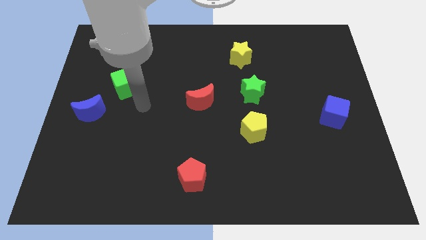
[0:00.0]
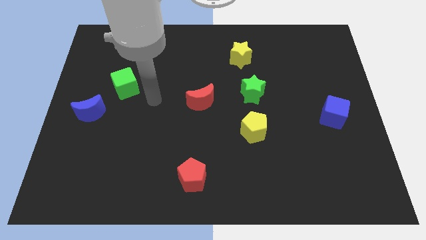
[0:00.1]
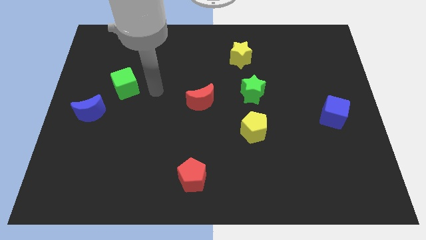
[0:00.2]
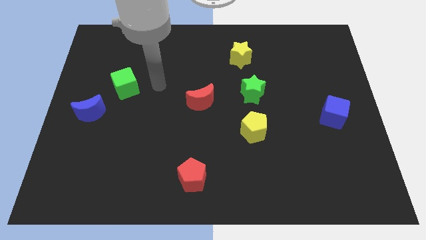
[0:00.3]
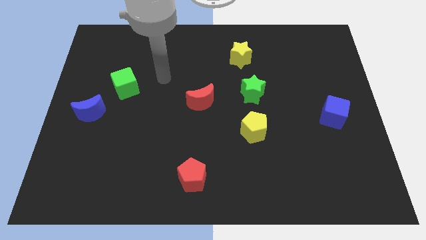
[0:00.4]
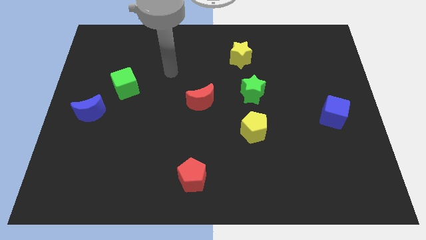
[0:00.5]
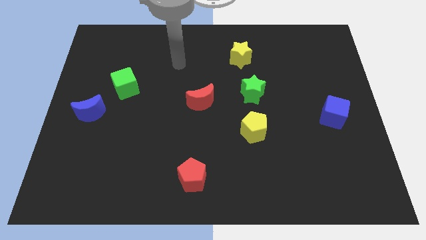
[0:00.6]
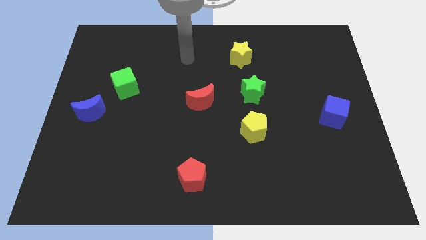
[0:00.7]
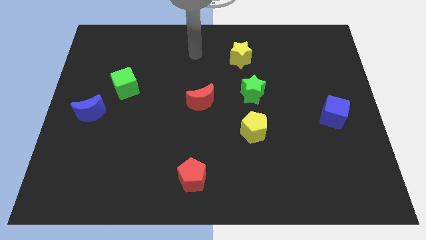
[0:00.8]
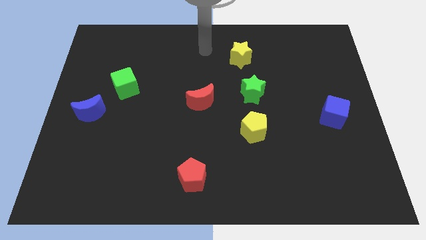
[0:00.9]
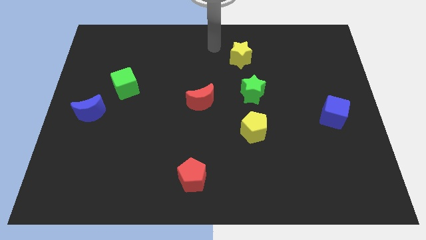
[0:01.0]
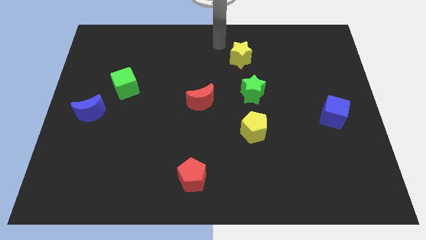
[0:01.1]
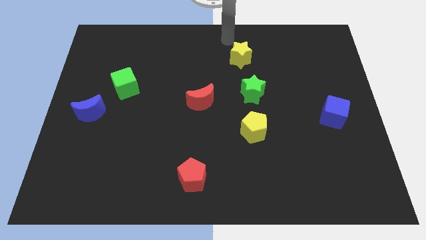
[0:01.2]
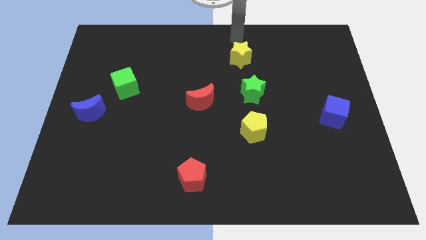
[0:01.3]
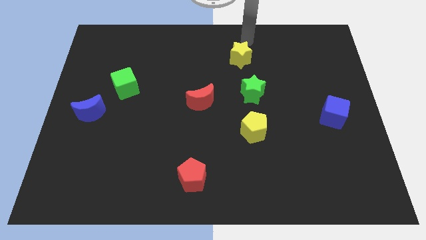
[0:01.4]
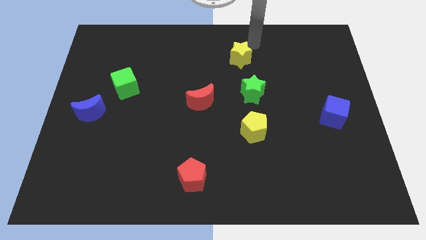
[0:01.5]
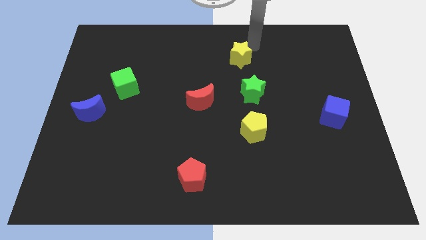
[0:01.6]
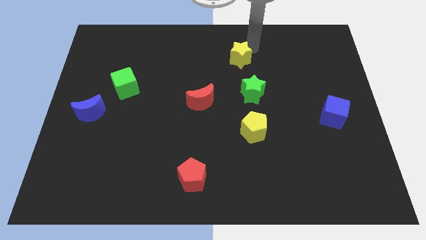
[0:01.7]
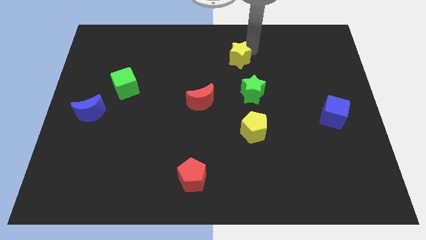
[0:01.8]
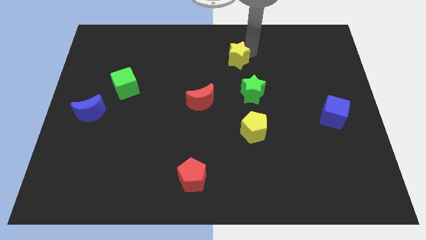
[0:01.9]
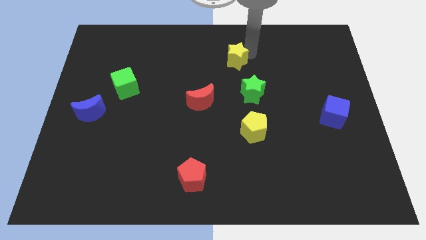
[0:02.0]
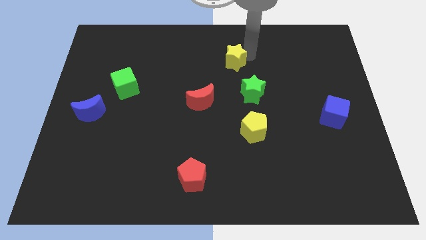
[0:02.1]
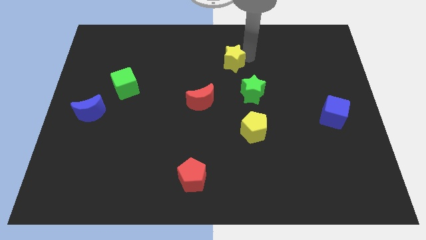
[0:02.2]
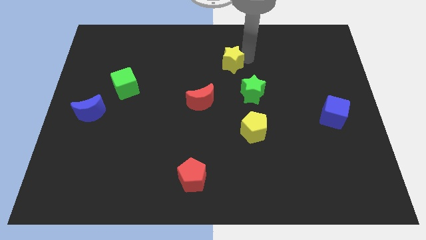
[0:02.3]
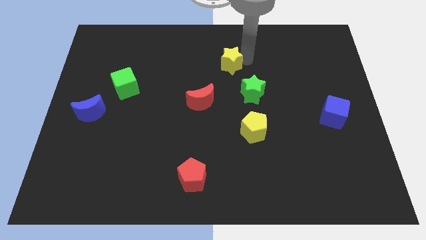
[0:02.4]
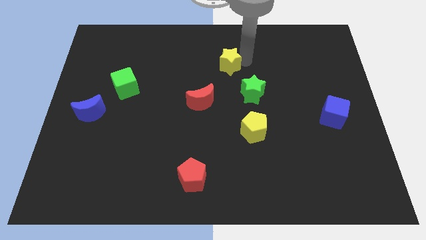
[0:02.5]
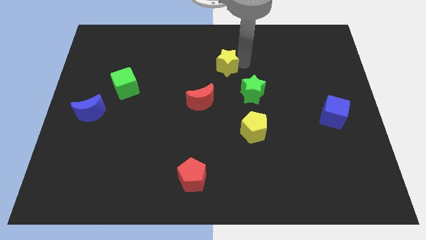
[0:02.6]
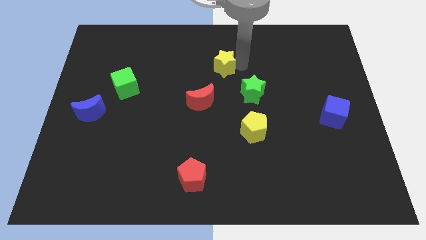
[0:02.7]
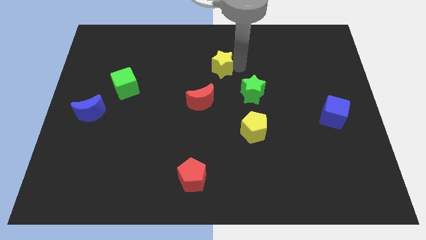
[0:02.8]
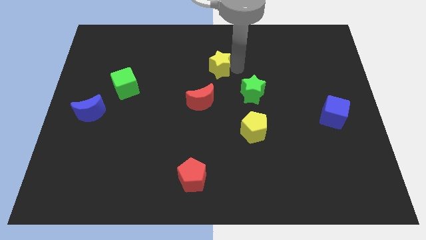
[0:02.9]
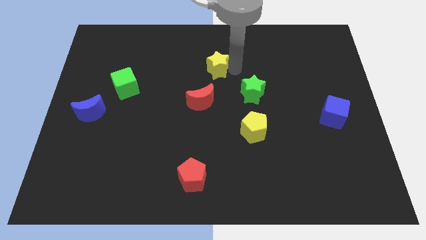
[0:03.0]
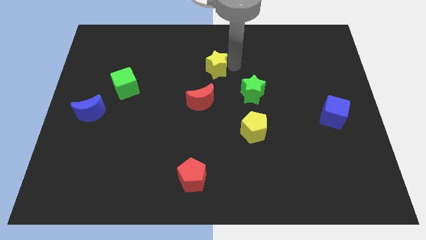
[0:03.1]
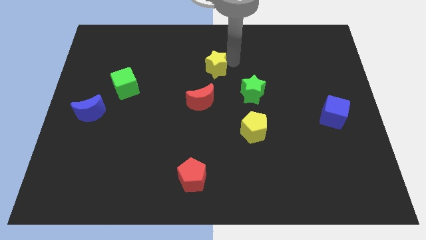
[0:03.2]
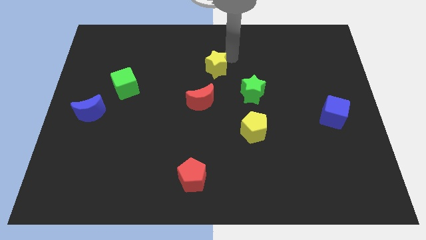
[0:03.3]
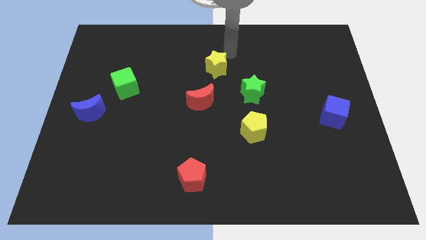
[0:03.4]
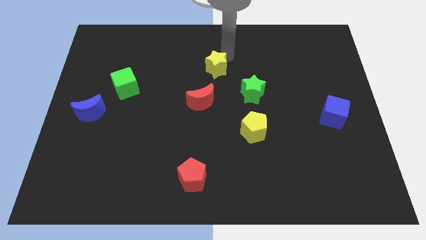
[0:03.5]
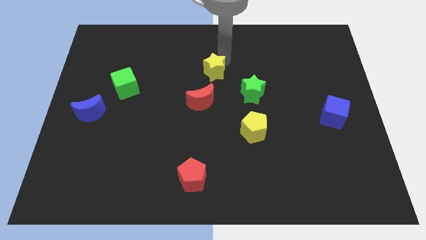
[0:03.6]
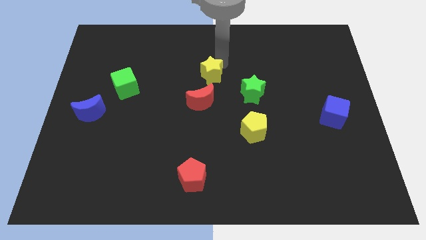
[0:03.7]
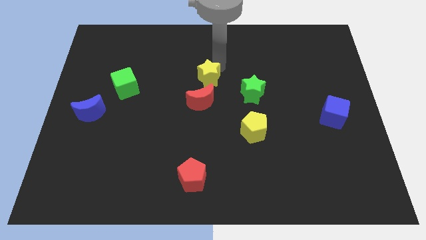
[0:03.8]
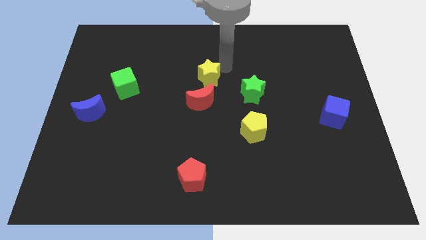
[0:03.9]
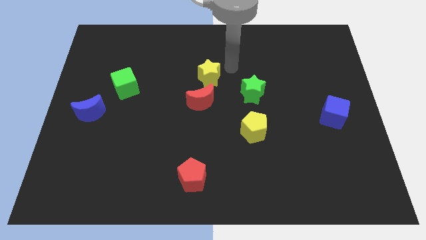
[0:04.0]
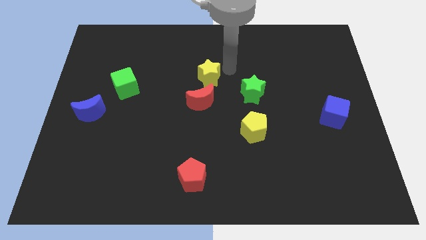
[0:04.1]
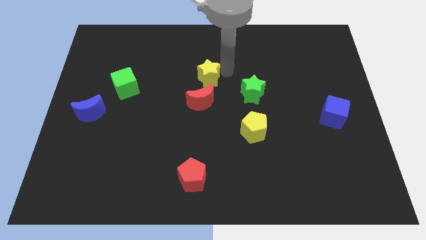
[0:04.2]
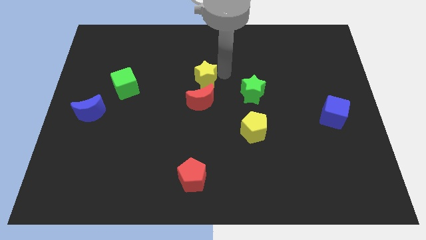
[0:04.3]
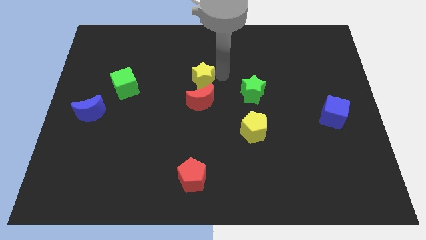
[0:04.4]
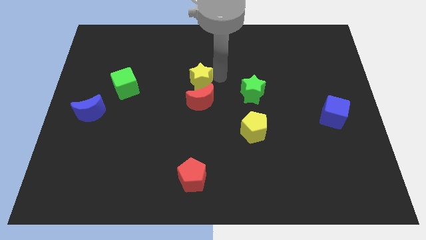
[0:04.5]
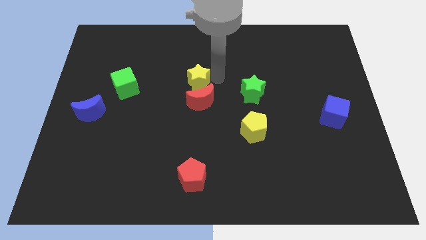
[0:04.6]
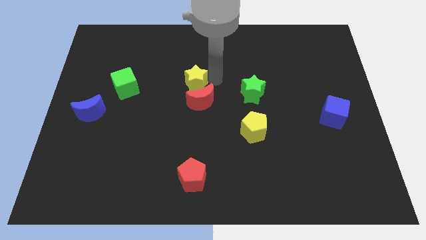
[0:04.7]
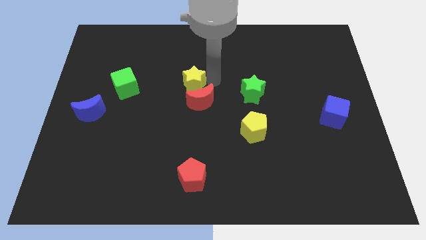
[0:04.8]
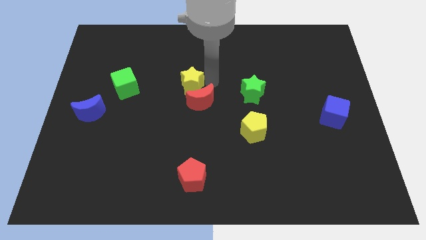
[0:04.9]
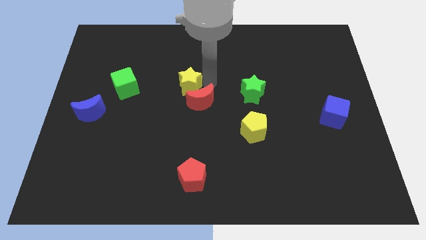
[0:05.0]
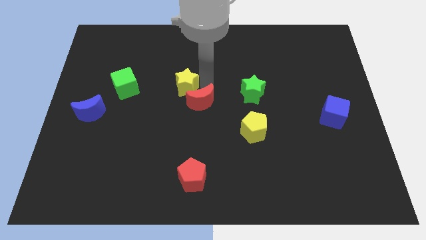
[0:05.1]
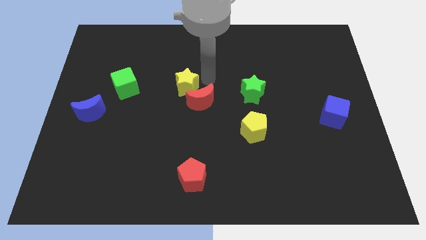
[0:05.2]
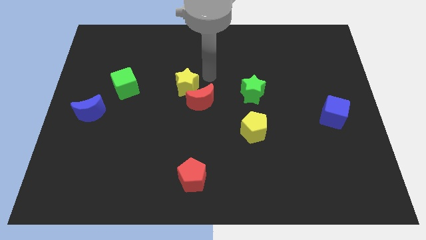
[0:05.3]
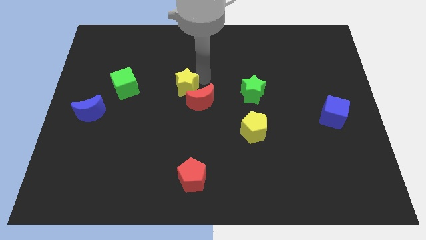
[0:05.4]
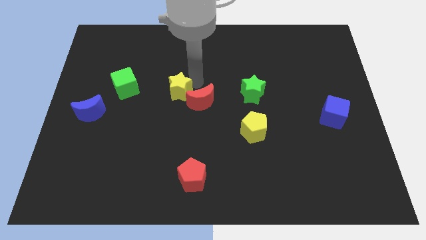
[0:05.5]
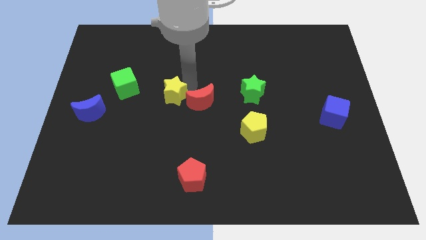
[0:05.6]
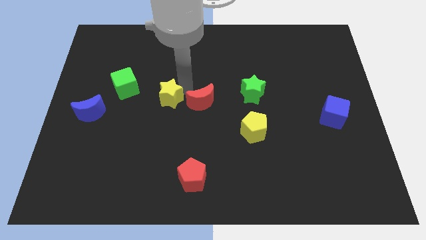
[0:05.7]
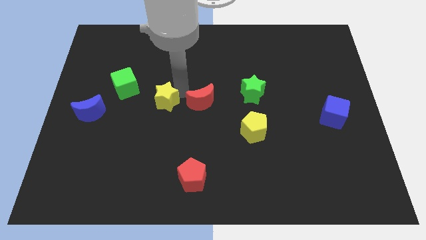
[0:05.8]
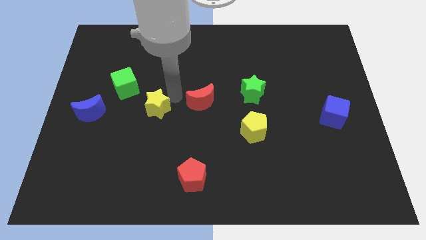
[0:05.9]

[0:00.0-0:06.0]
push the yellow star to the right side of the blue moon

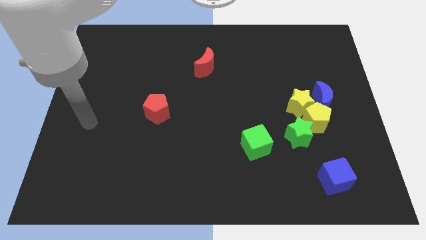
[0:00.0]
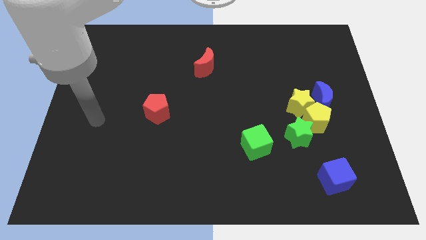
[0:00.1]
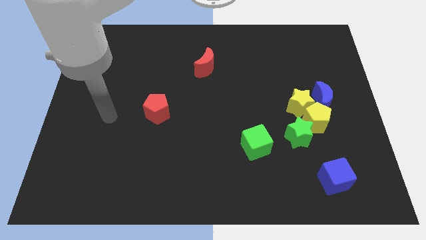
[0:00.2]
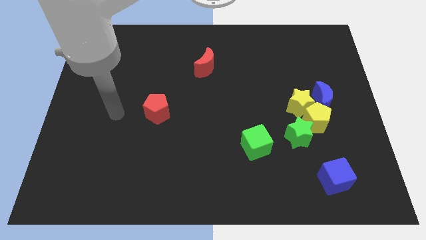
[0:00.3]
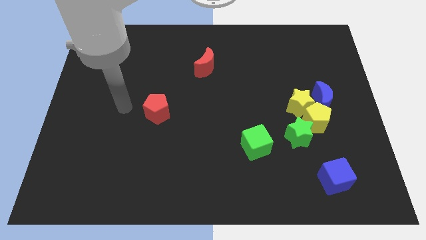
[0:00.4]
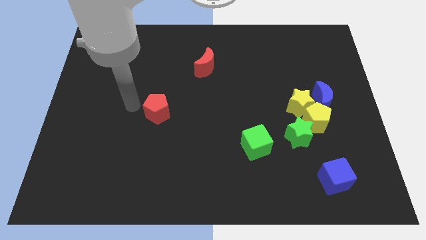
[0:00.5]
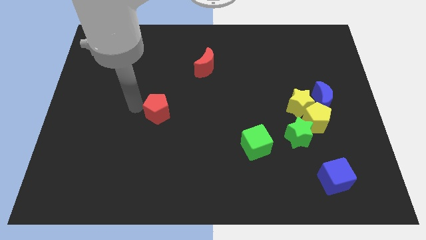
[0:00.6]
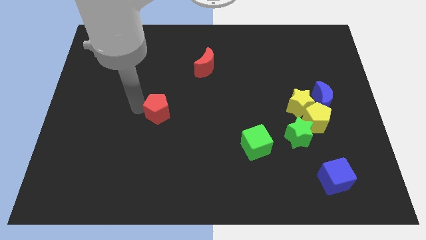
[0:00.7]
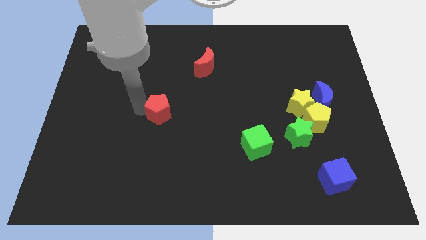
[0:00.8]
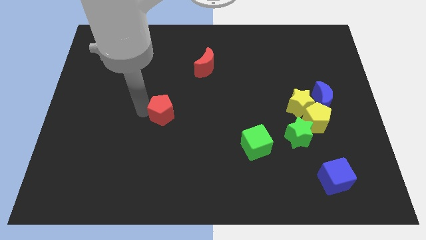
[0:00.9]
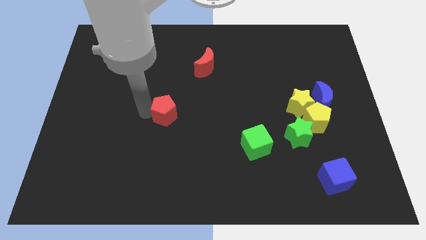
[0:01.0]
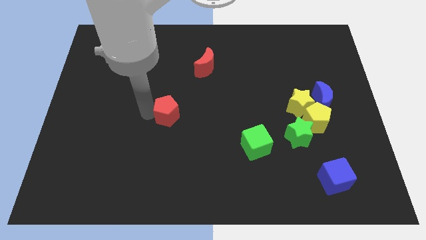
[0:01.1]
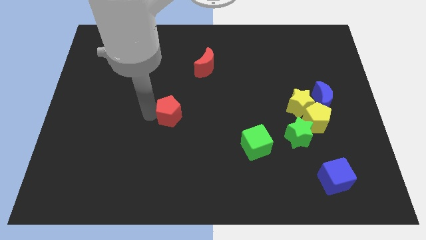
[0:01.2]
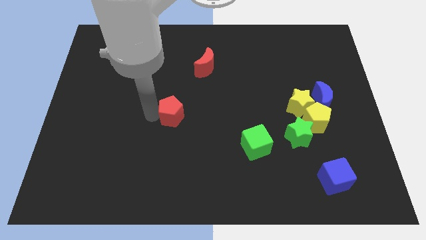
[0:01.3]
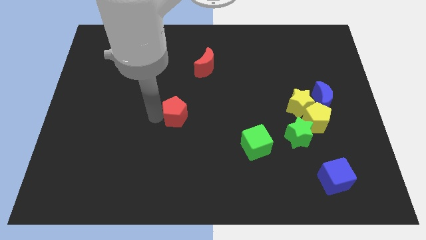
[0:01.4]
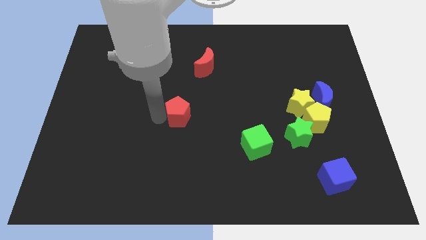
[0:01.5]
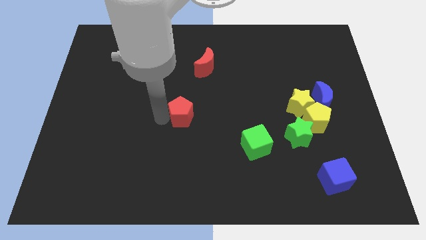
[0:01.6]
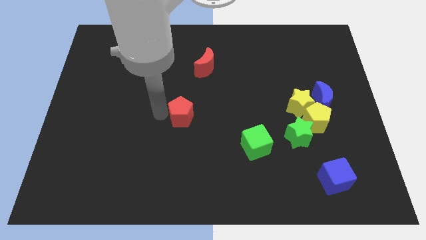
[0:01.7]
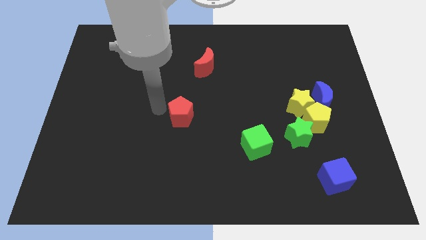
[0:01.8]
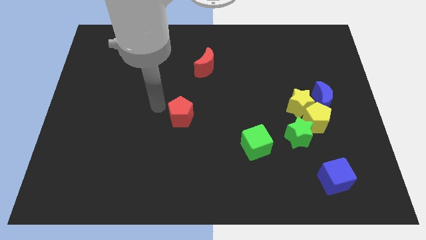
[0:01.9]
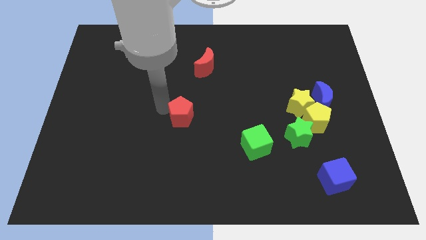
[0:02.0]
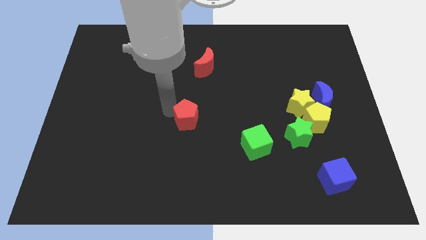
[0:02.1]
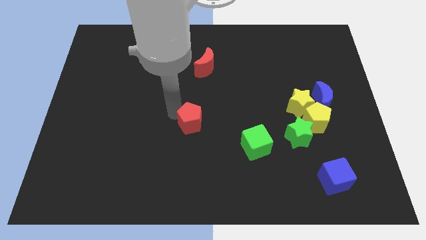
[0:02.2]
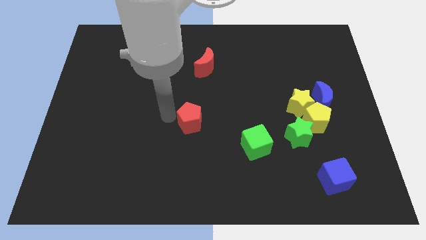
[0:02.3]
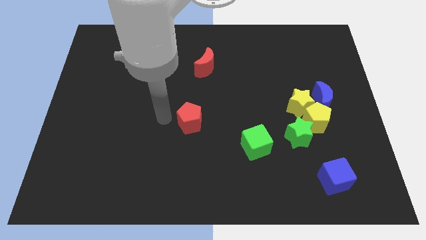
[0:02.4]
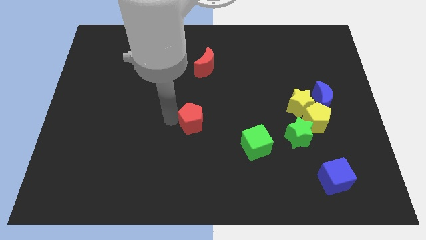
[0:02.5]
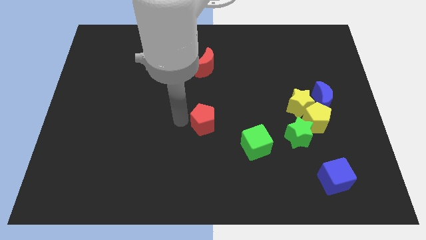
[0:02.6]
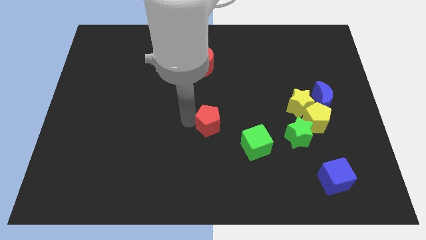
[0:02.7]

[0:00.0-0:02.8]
put the red pentagon diagonally up and to the left of the green cube
